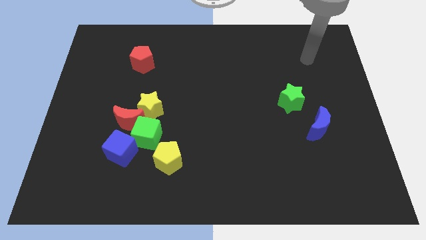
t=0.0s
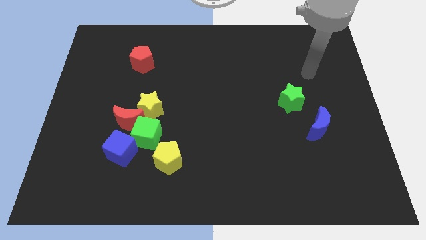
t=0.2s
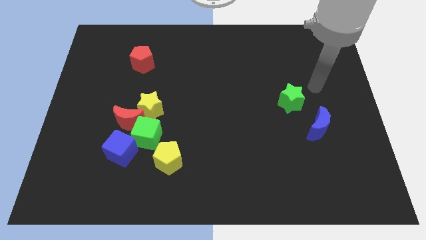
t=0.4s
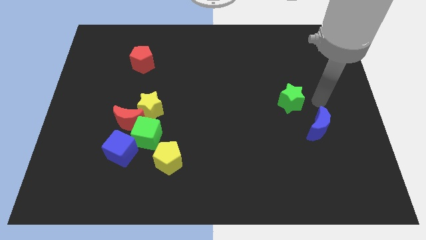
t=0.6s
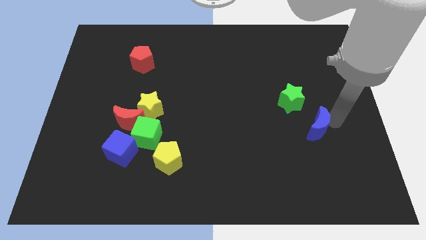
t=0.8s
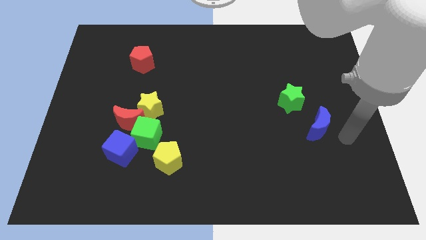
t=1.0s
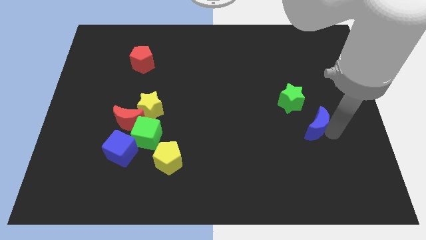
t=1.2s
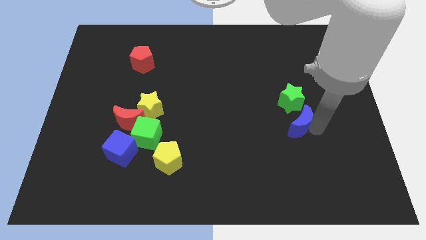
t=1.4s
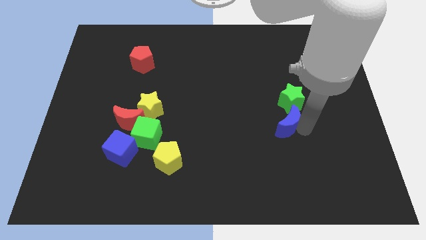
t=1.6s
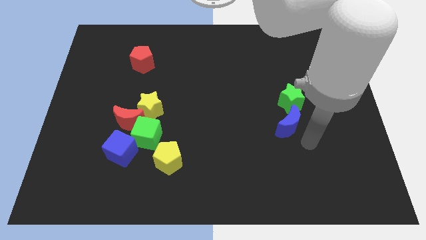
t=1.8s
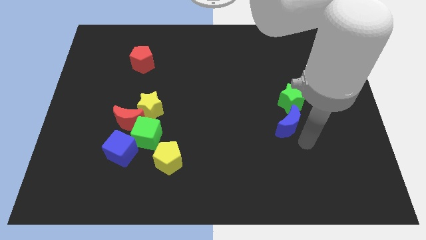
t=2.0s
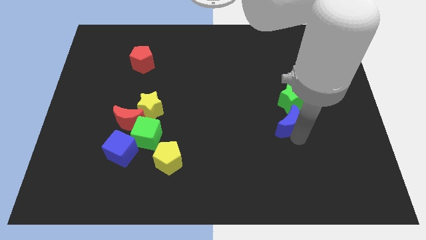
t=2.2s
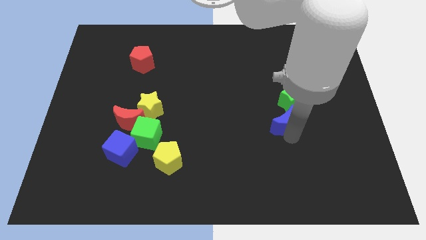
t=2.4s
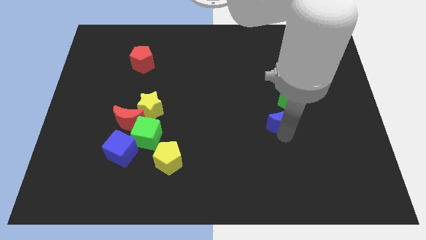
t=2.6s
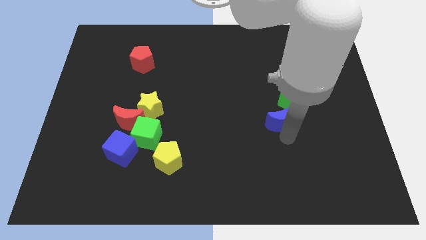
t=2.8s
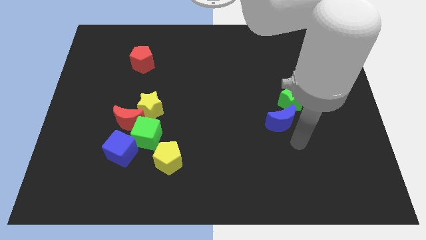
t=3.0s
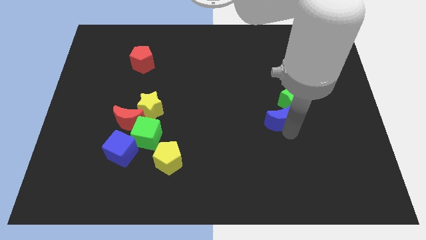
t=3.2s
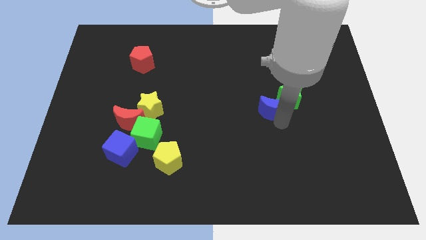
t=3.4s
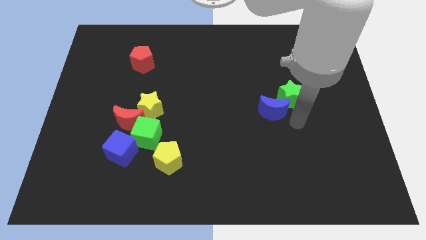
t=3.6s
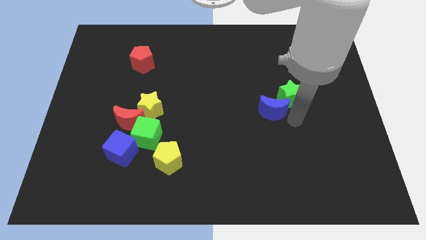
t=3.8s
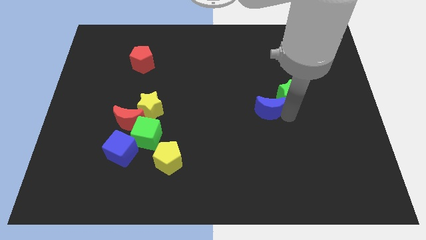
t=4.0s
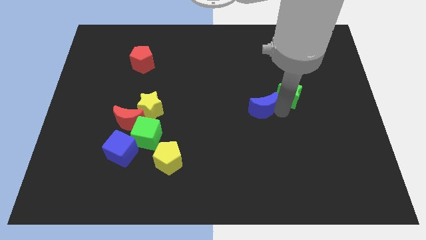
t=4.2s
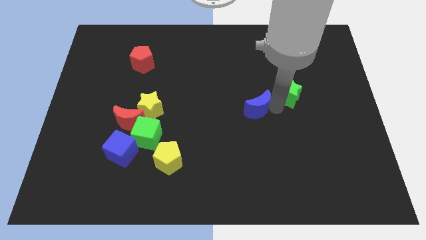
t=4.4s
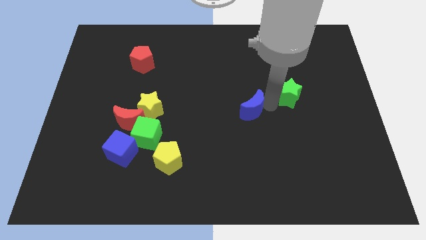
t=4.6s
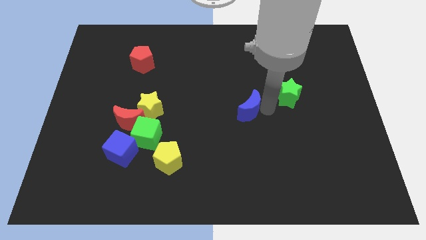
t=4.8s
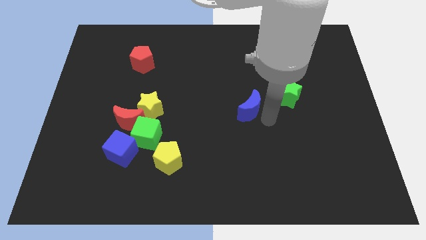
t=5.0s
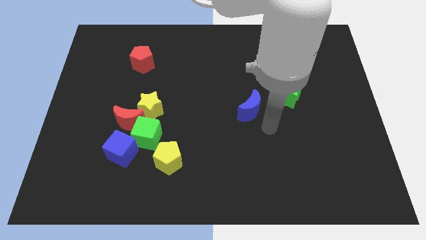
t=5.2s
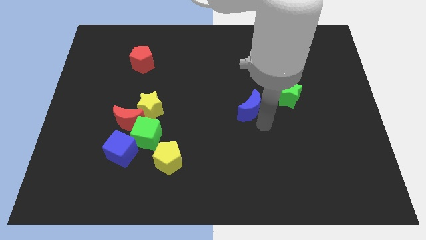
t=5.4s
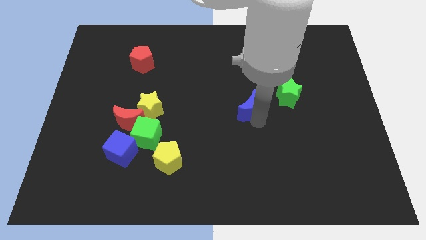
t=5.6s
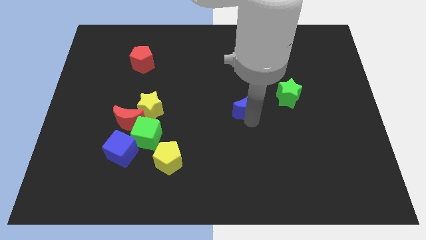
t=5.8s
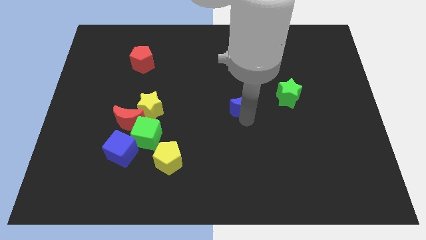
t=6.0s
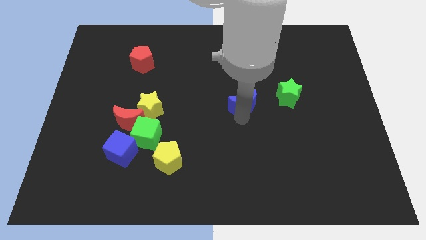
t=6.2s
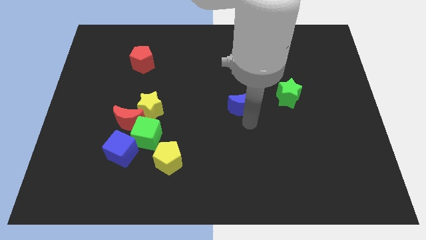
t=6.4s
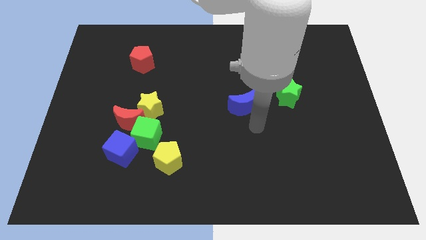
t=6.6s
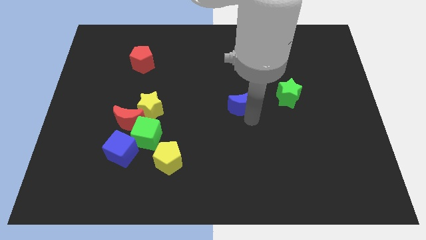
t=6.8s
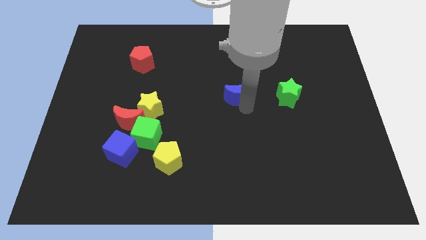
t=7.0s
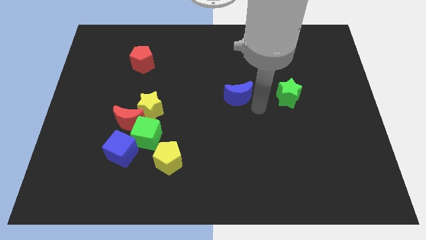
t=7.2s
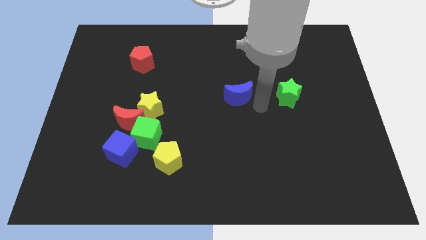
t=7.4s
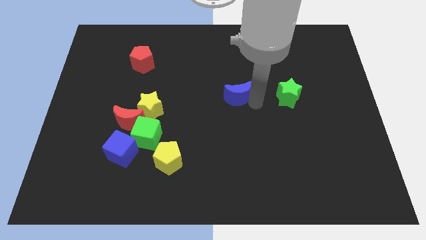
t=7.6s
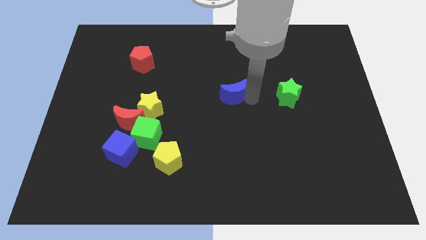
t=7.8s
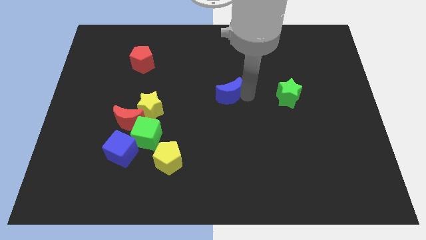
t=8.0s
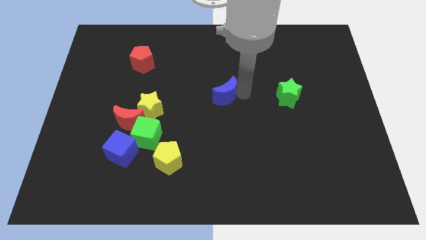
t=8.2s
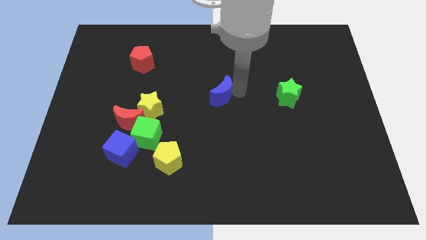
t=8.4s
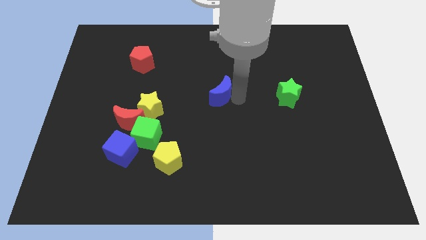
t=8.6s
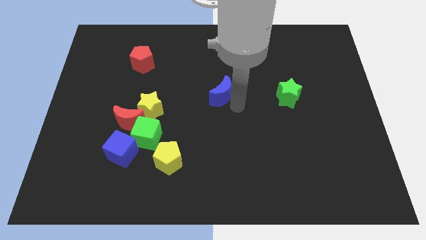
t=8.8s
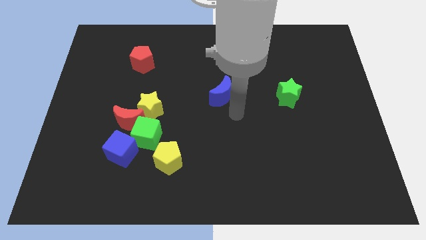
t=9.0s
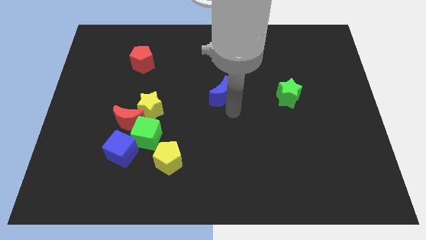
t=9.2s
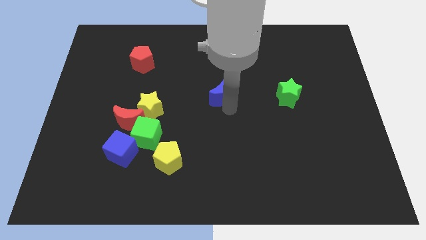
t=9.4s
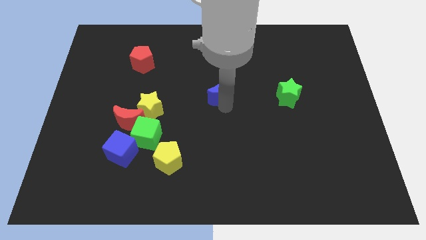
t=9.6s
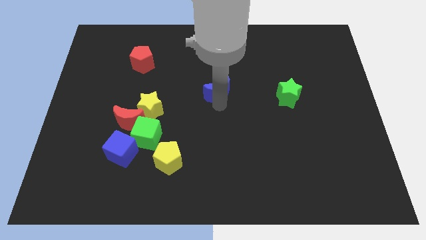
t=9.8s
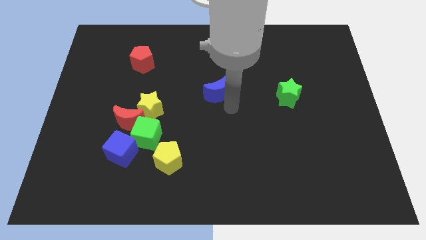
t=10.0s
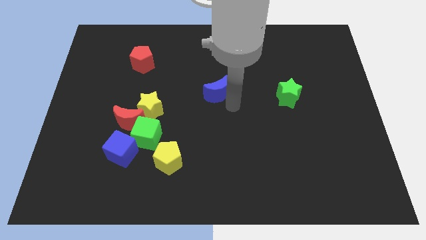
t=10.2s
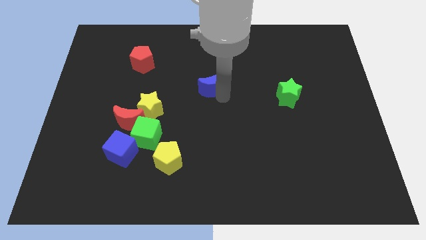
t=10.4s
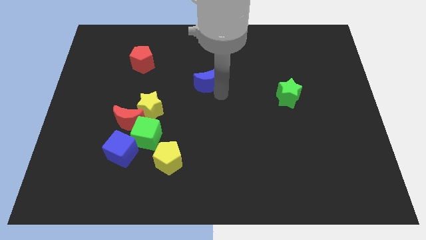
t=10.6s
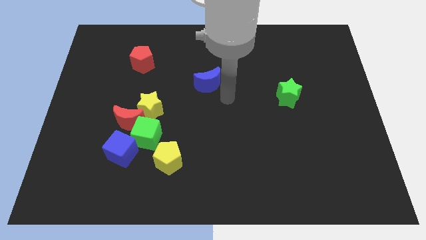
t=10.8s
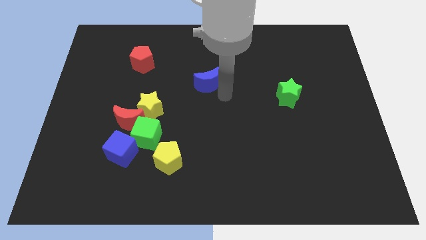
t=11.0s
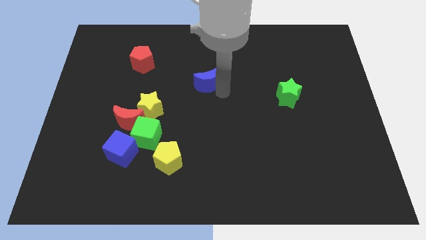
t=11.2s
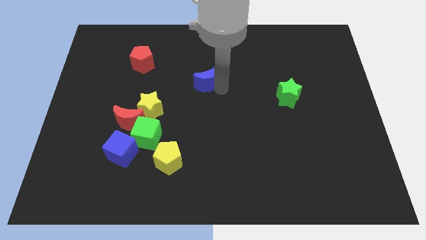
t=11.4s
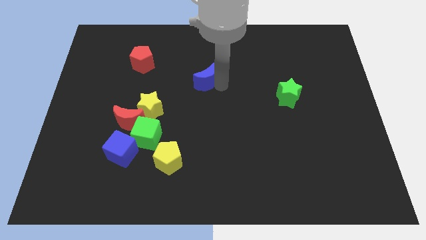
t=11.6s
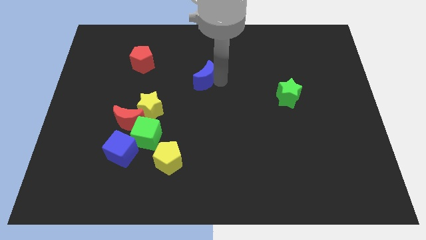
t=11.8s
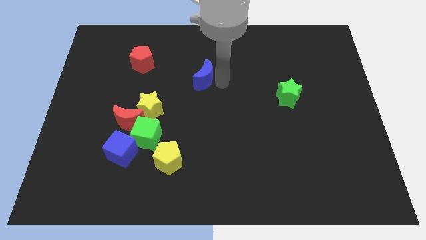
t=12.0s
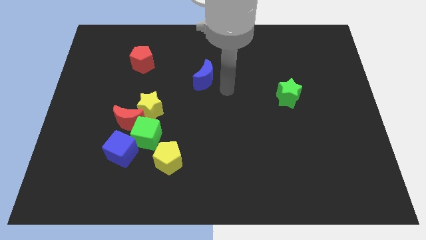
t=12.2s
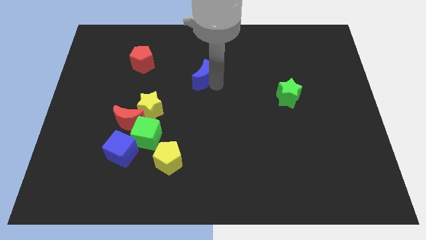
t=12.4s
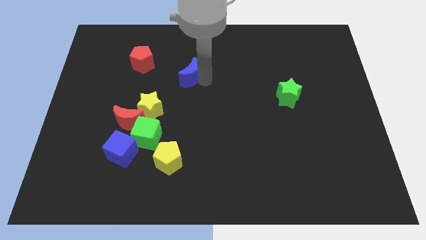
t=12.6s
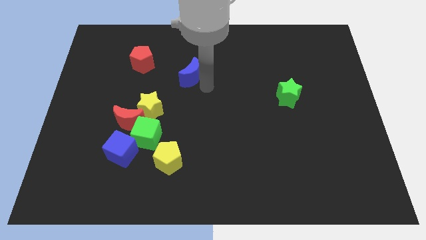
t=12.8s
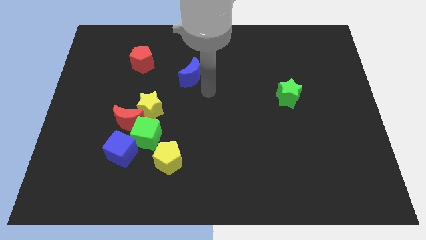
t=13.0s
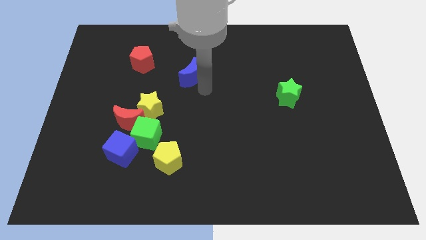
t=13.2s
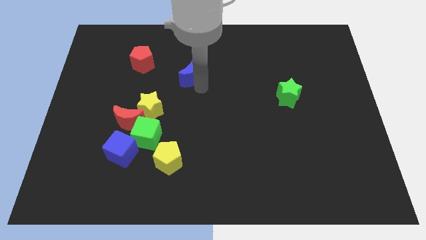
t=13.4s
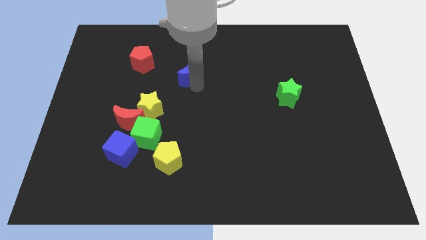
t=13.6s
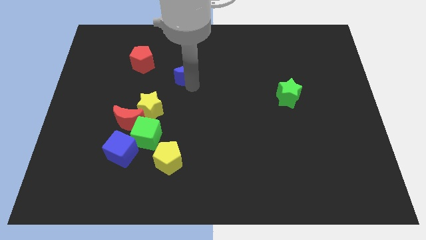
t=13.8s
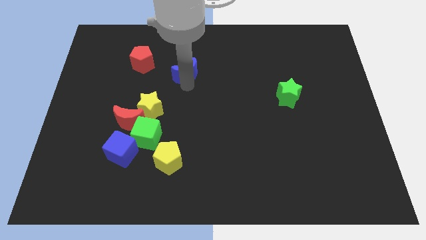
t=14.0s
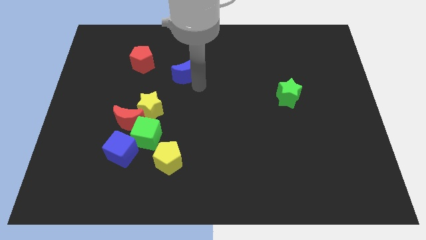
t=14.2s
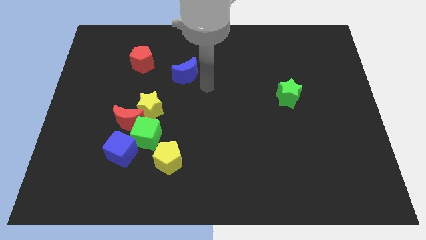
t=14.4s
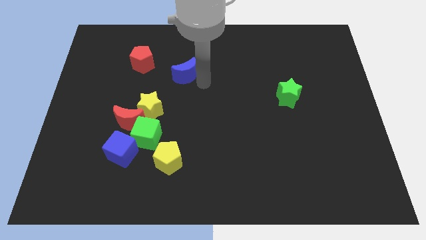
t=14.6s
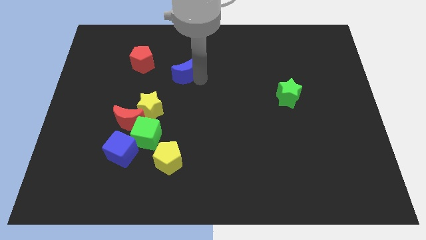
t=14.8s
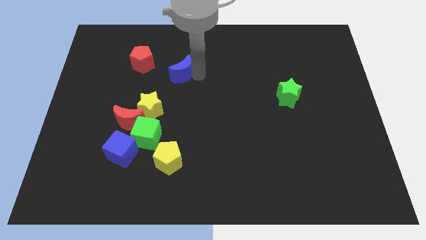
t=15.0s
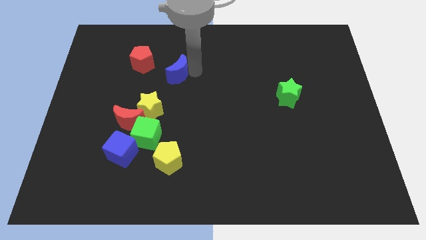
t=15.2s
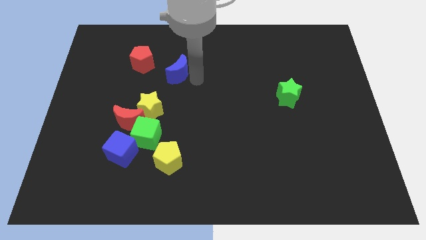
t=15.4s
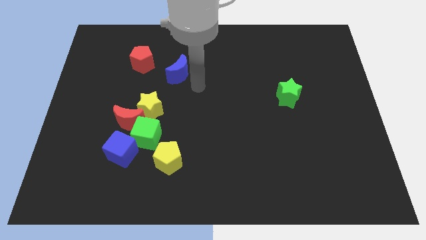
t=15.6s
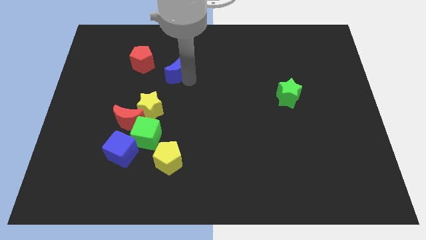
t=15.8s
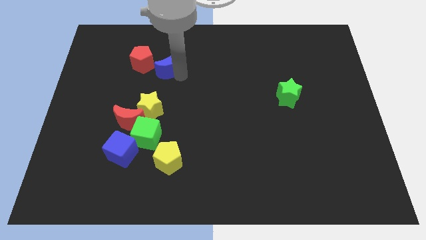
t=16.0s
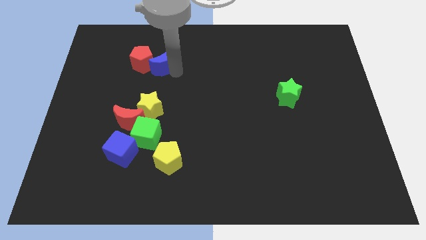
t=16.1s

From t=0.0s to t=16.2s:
slide the blue moon close to the red pentagon
